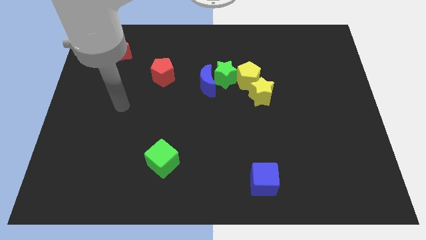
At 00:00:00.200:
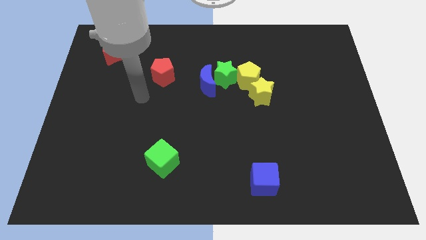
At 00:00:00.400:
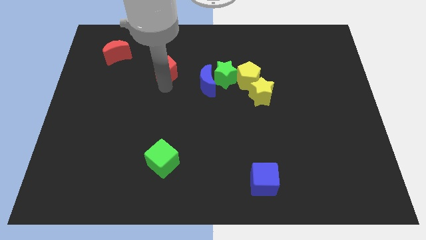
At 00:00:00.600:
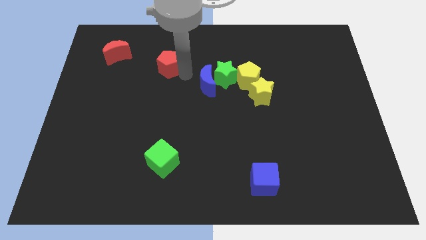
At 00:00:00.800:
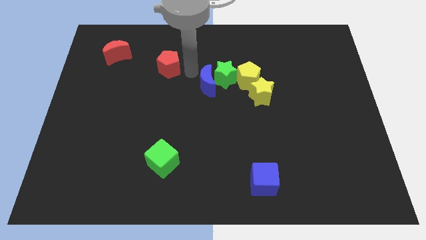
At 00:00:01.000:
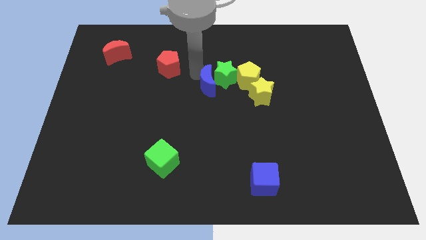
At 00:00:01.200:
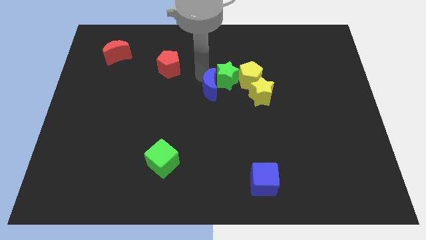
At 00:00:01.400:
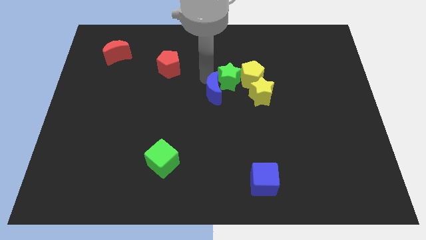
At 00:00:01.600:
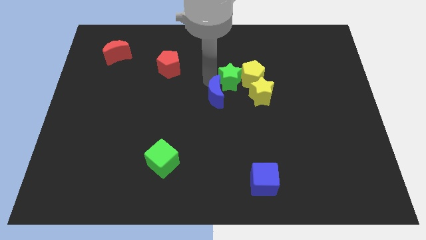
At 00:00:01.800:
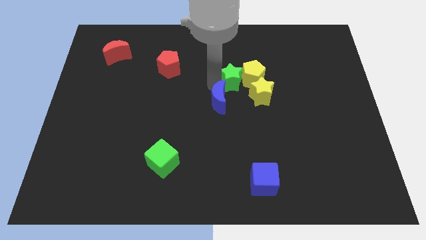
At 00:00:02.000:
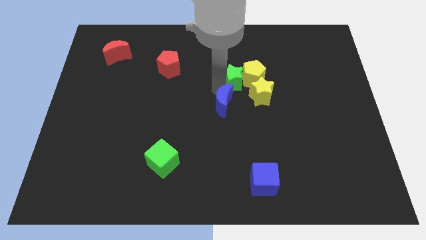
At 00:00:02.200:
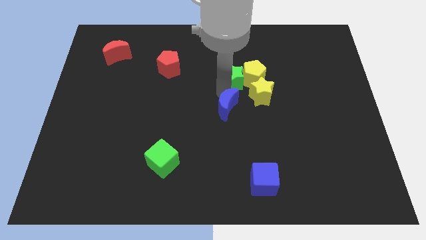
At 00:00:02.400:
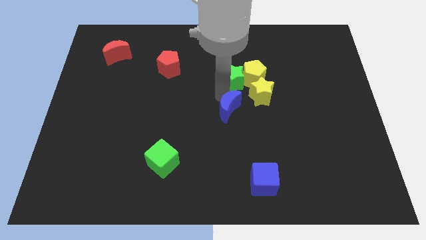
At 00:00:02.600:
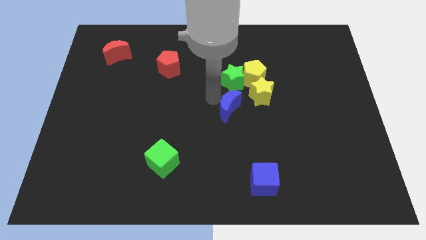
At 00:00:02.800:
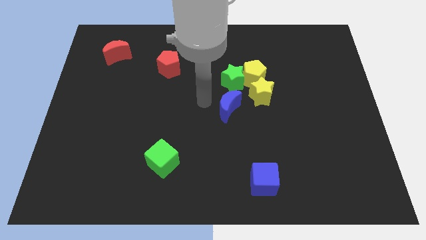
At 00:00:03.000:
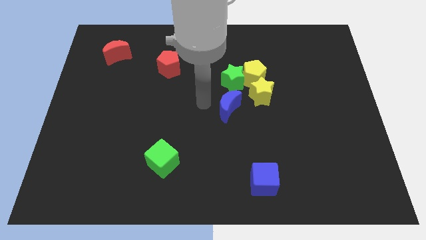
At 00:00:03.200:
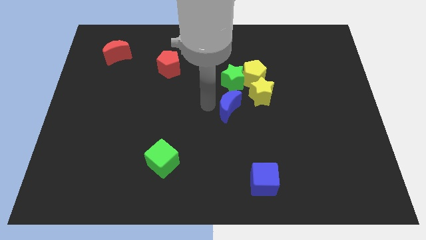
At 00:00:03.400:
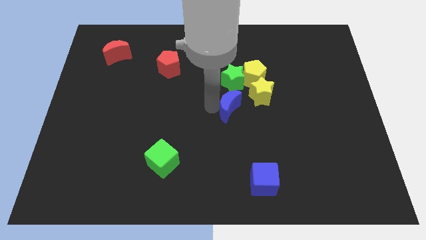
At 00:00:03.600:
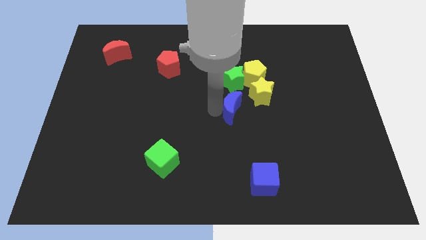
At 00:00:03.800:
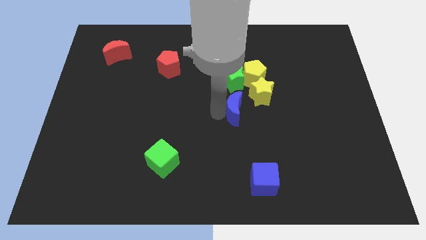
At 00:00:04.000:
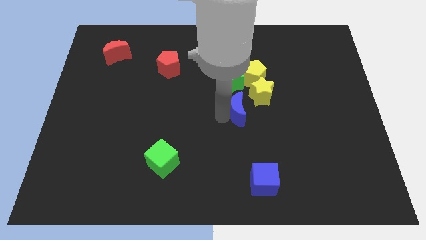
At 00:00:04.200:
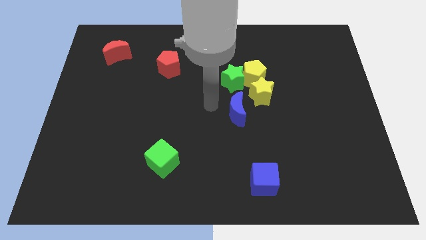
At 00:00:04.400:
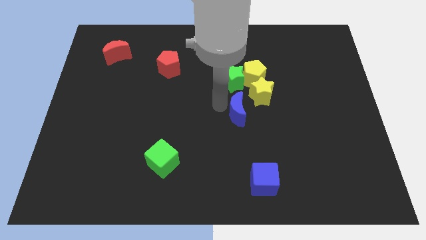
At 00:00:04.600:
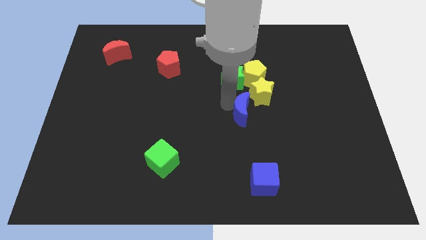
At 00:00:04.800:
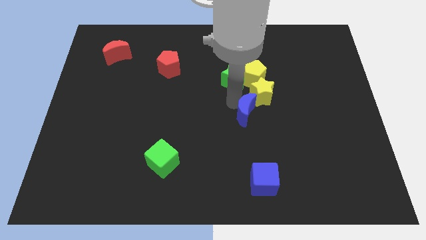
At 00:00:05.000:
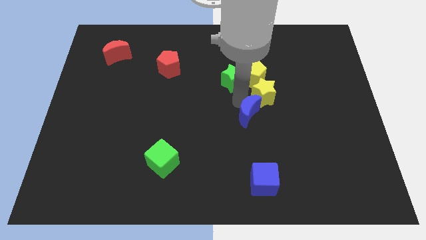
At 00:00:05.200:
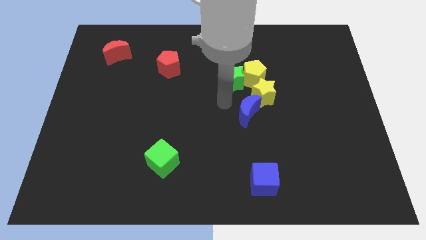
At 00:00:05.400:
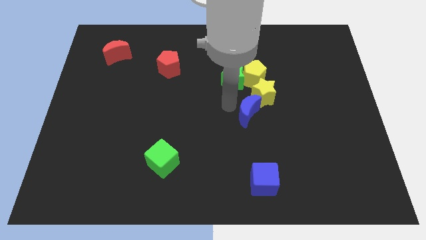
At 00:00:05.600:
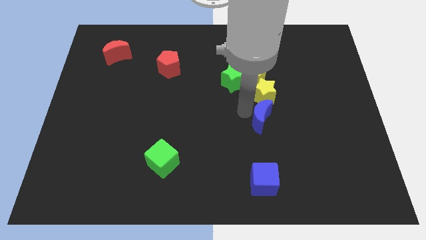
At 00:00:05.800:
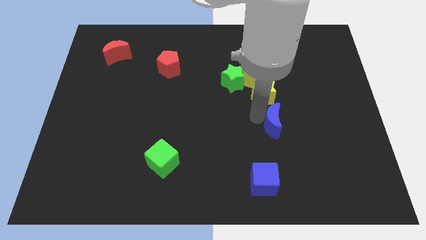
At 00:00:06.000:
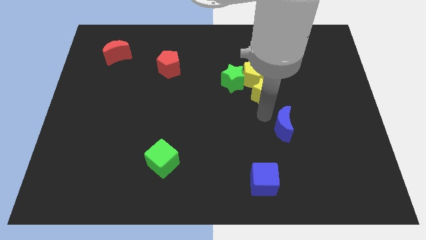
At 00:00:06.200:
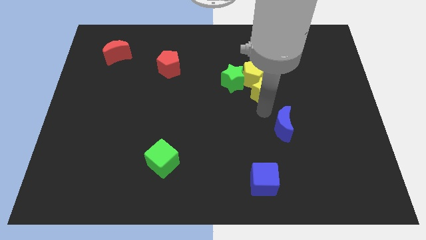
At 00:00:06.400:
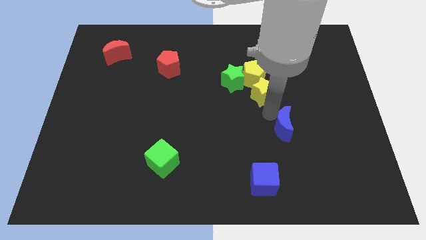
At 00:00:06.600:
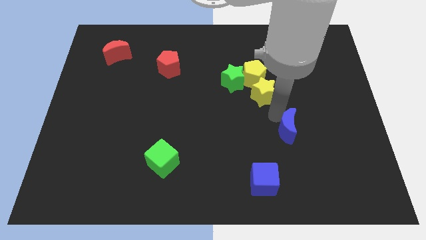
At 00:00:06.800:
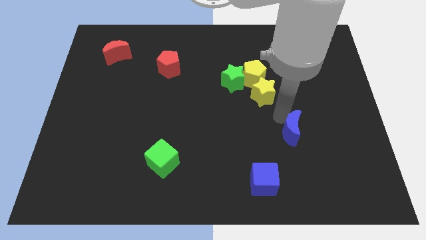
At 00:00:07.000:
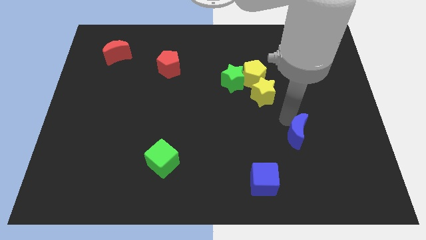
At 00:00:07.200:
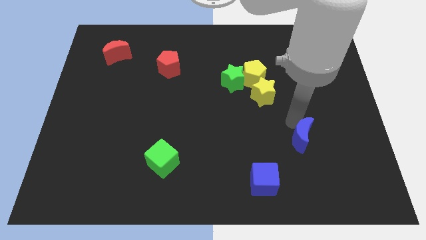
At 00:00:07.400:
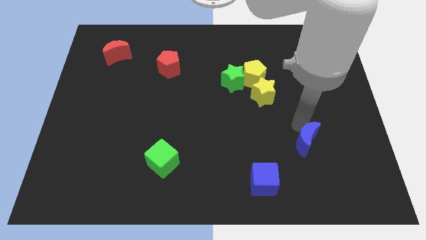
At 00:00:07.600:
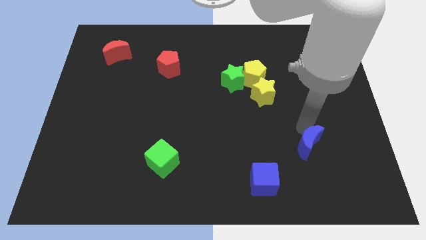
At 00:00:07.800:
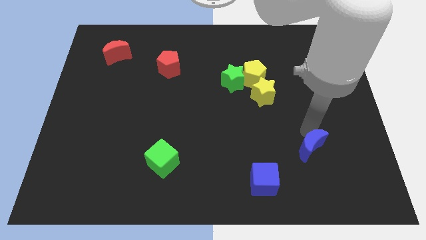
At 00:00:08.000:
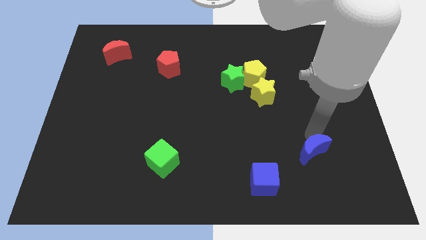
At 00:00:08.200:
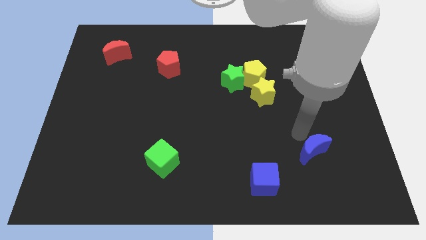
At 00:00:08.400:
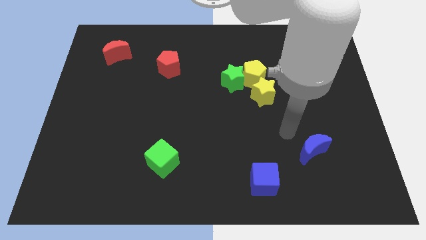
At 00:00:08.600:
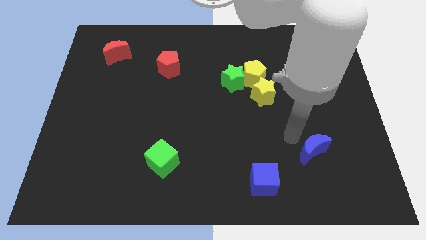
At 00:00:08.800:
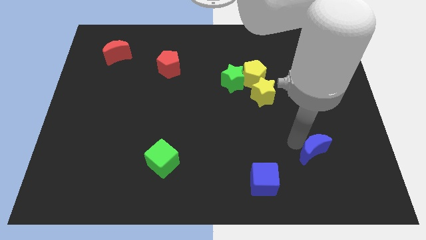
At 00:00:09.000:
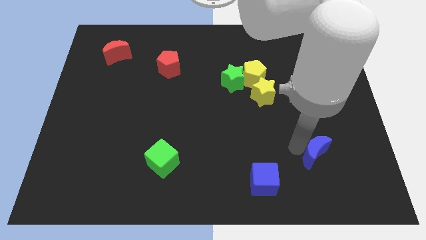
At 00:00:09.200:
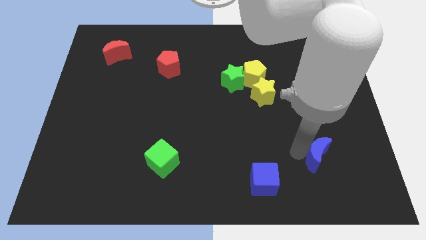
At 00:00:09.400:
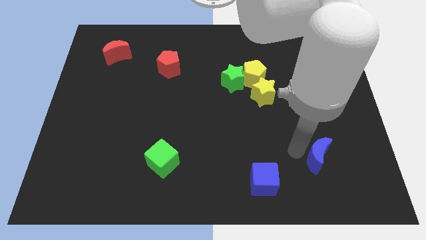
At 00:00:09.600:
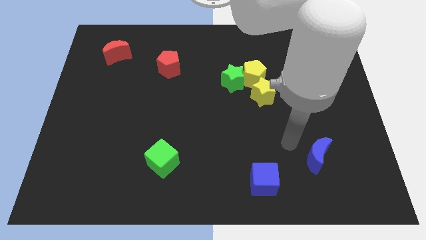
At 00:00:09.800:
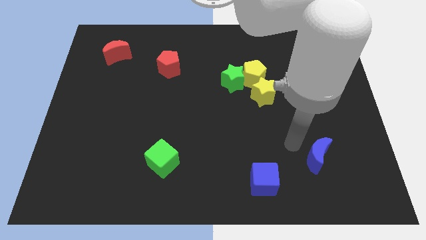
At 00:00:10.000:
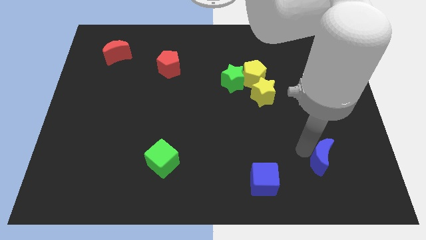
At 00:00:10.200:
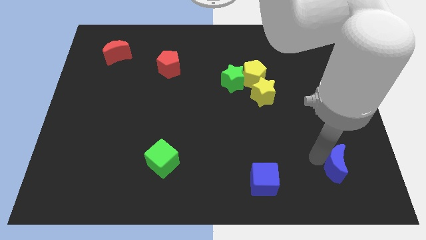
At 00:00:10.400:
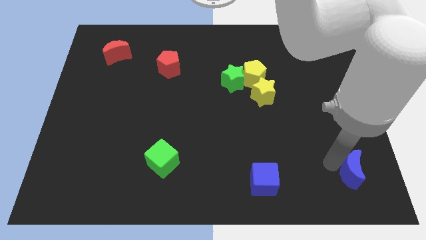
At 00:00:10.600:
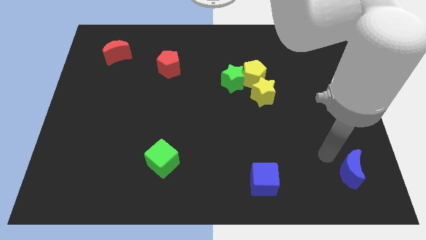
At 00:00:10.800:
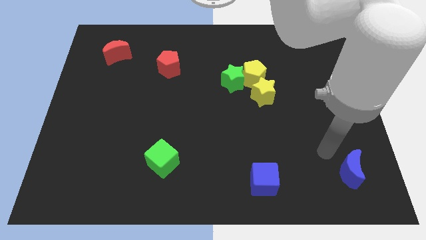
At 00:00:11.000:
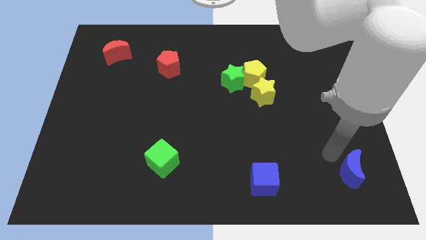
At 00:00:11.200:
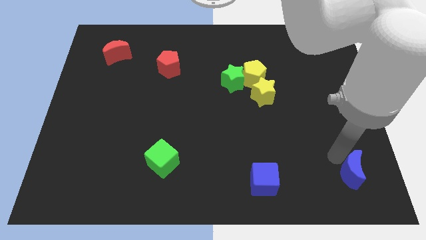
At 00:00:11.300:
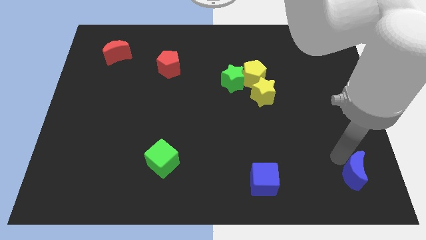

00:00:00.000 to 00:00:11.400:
put the blue moon to the bottom right of the board

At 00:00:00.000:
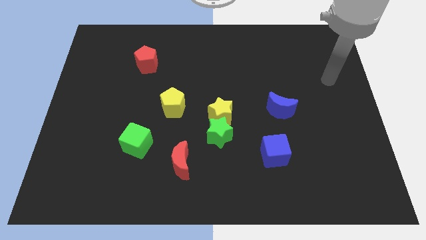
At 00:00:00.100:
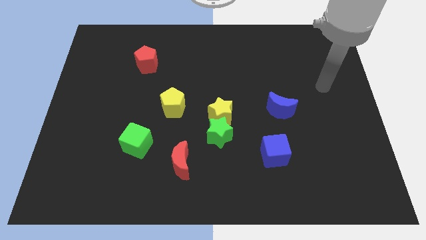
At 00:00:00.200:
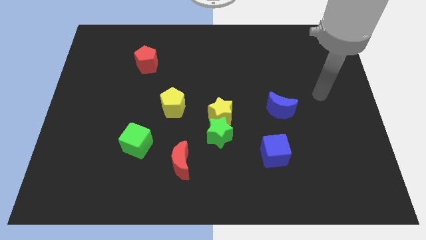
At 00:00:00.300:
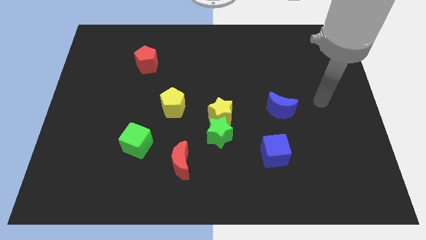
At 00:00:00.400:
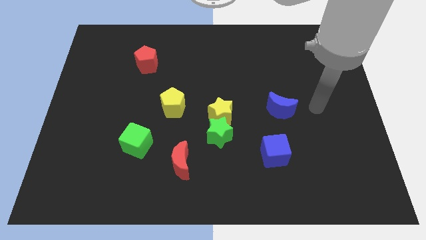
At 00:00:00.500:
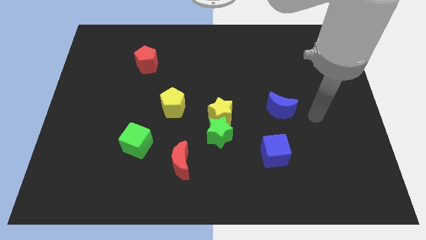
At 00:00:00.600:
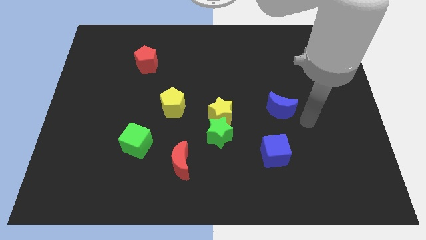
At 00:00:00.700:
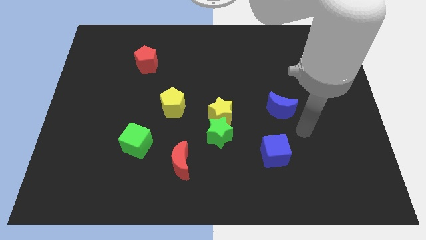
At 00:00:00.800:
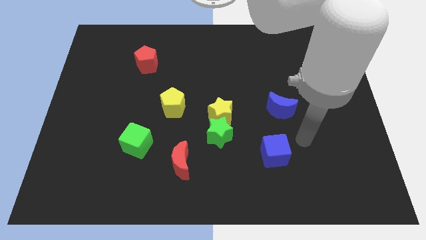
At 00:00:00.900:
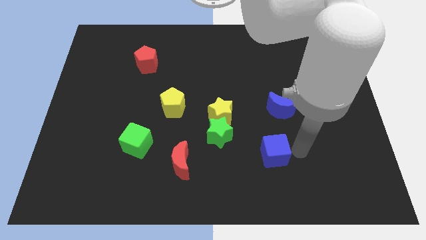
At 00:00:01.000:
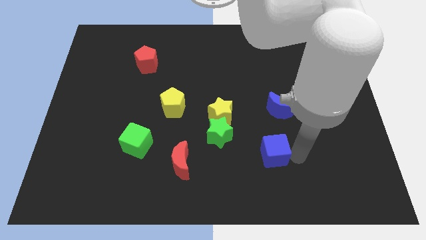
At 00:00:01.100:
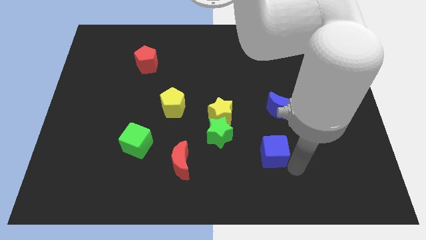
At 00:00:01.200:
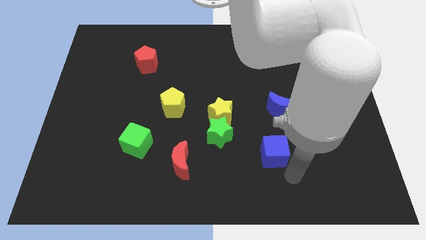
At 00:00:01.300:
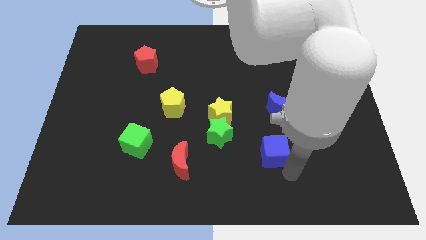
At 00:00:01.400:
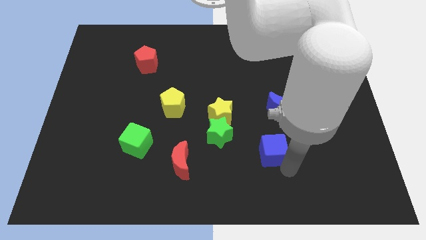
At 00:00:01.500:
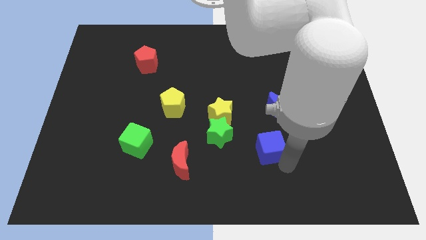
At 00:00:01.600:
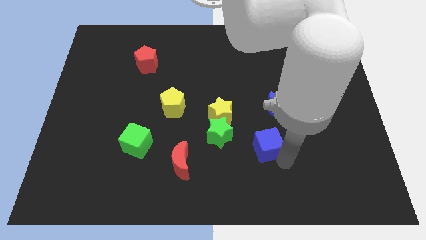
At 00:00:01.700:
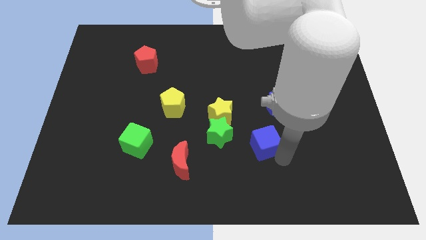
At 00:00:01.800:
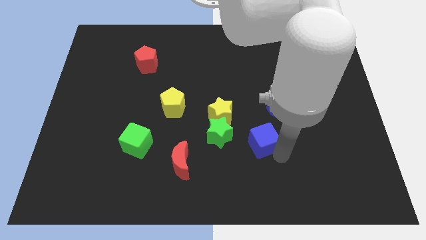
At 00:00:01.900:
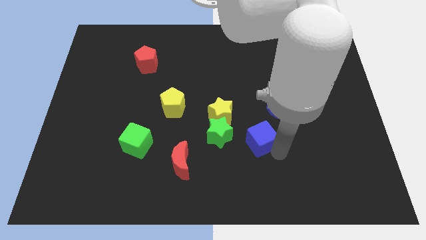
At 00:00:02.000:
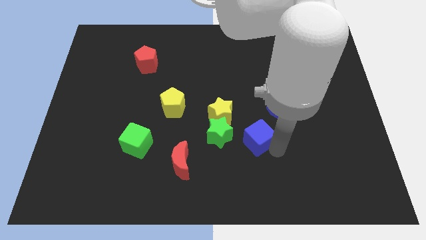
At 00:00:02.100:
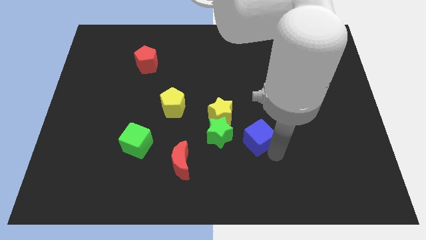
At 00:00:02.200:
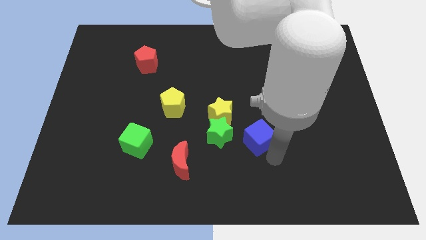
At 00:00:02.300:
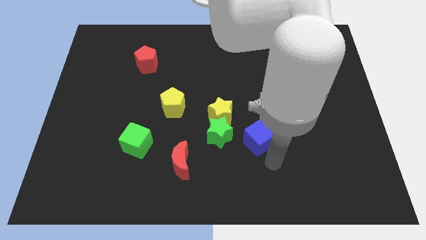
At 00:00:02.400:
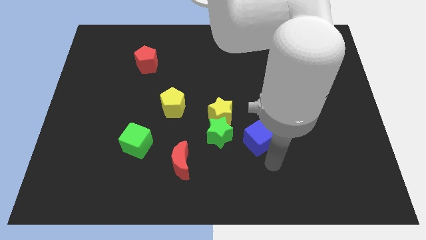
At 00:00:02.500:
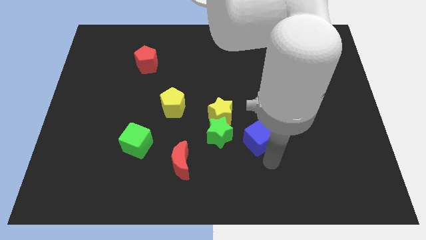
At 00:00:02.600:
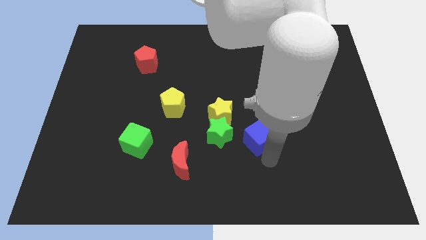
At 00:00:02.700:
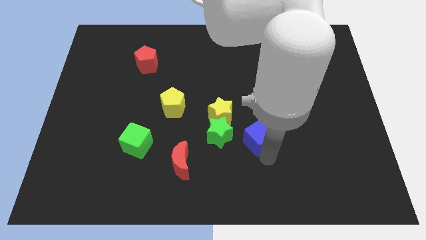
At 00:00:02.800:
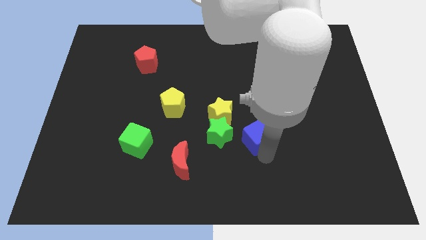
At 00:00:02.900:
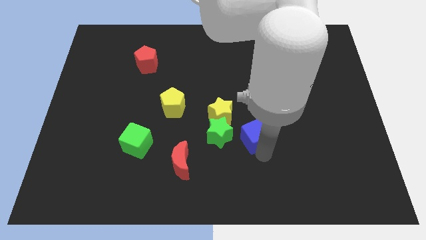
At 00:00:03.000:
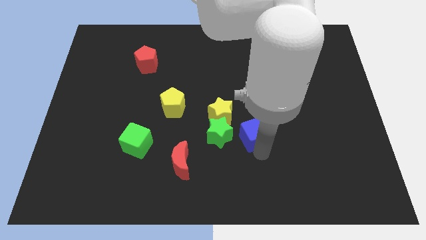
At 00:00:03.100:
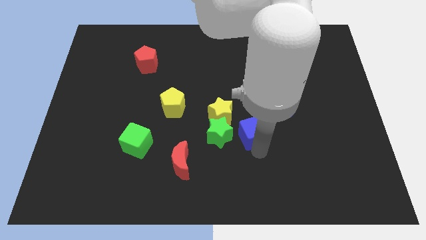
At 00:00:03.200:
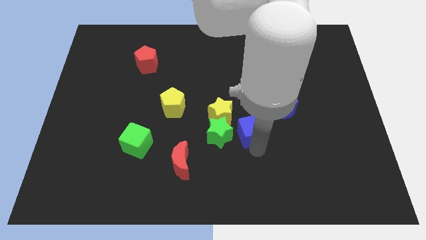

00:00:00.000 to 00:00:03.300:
move the blue cube to the center
